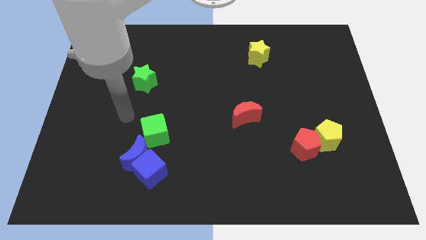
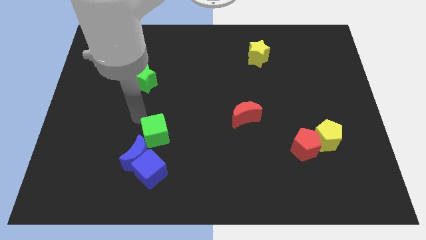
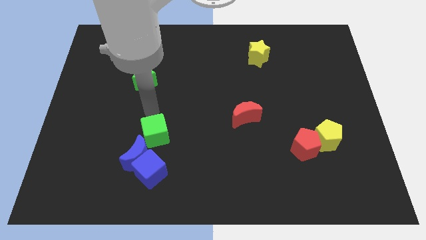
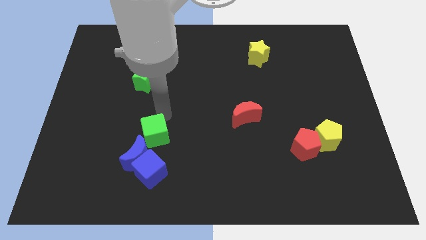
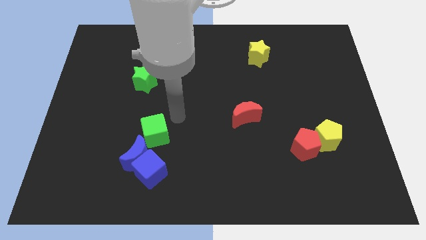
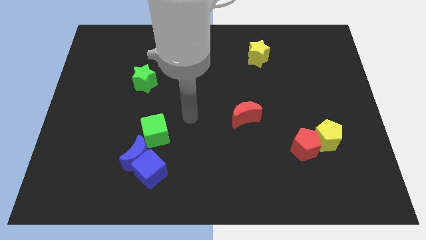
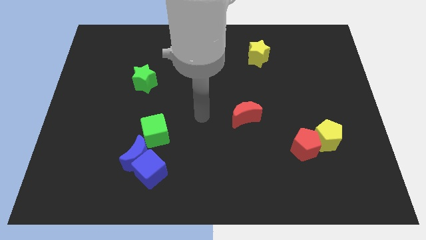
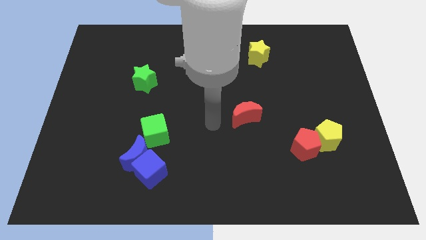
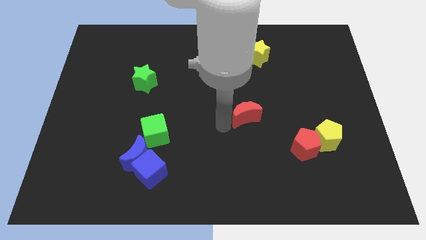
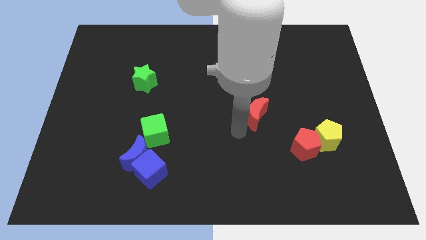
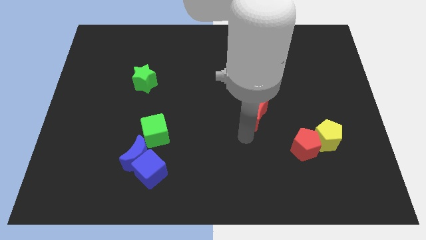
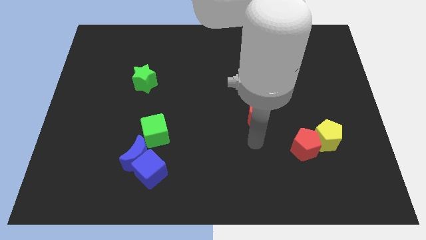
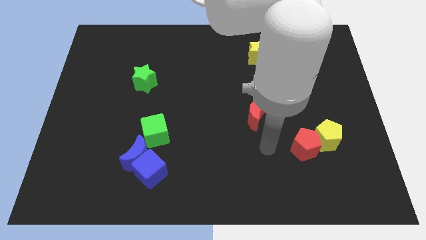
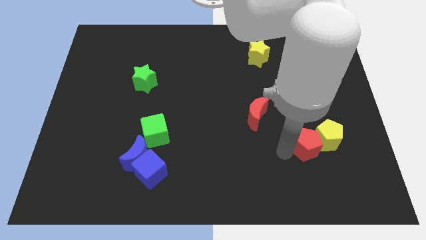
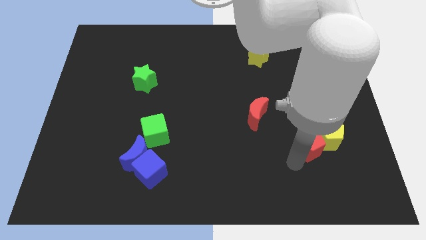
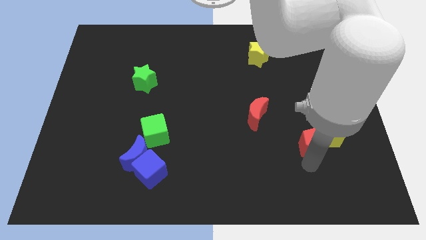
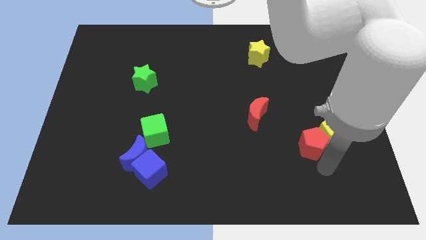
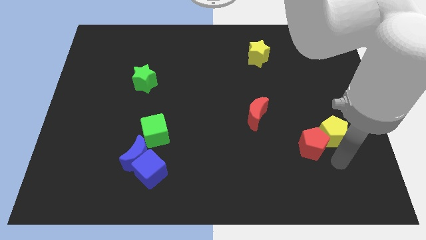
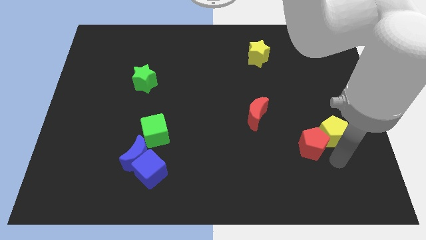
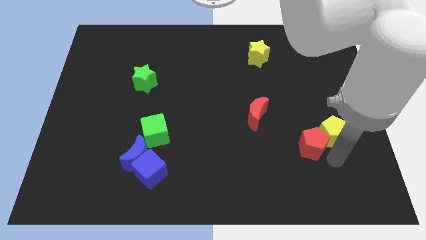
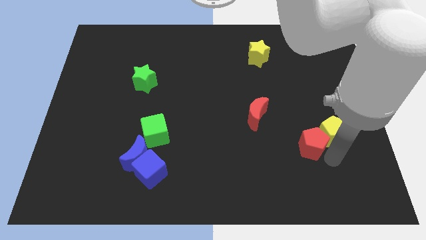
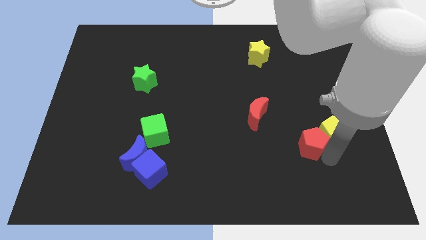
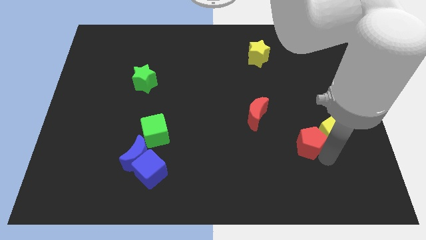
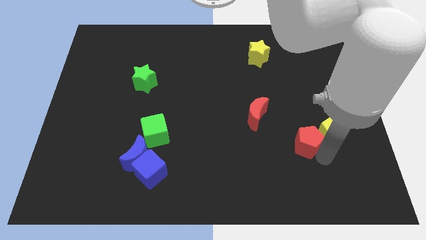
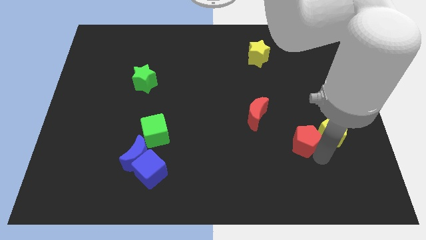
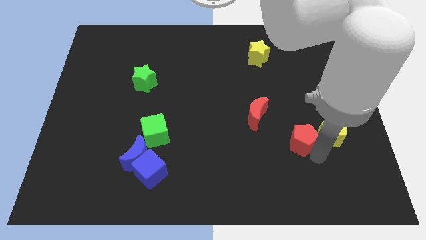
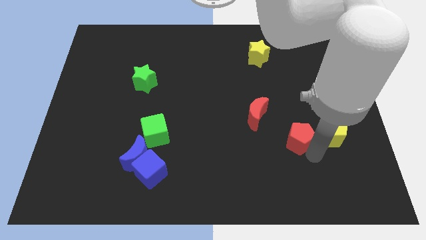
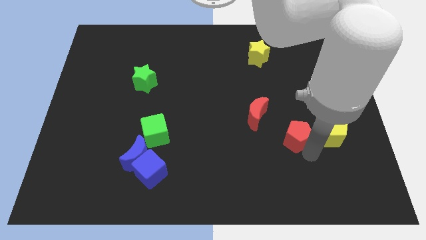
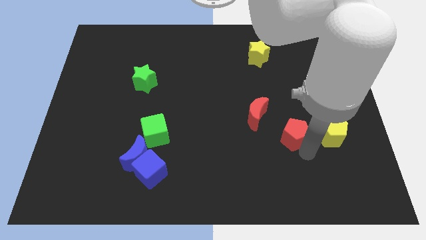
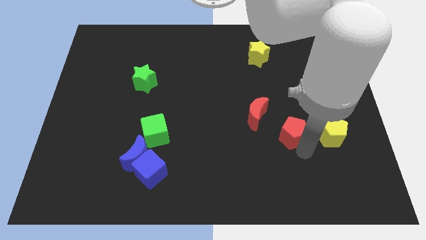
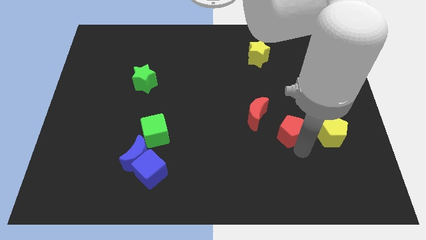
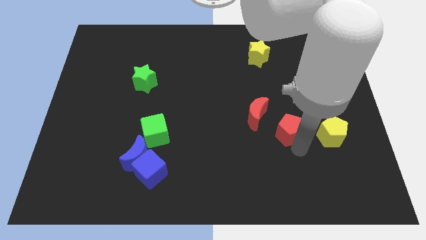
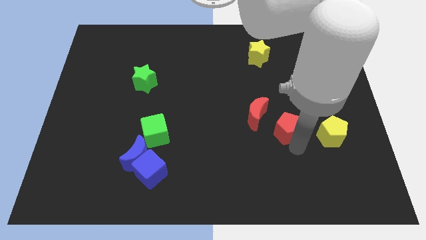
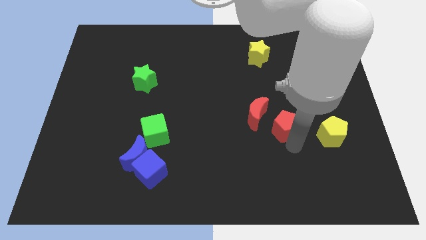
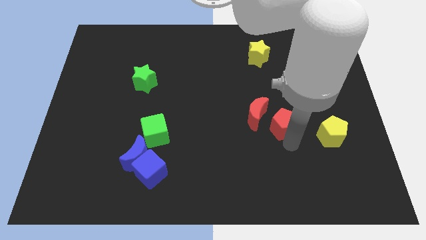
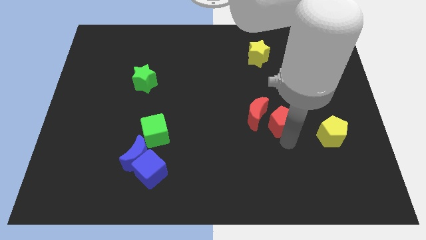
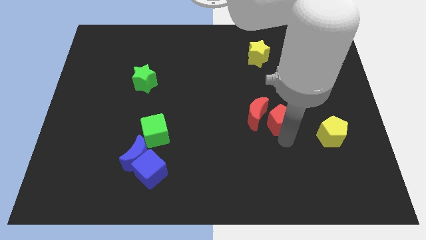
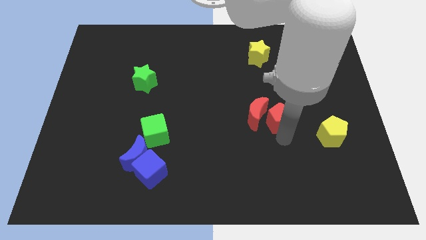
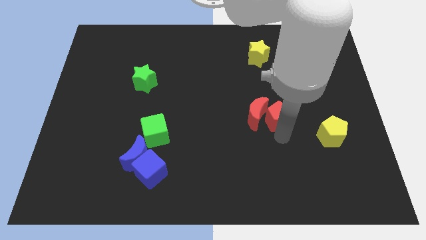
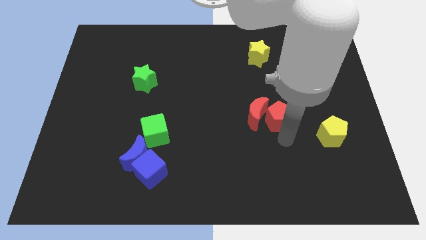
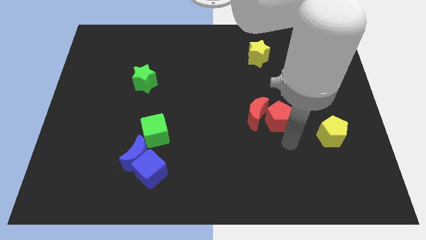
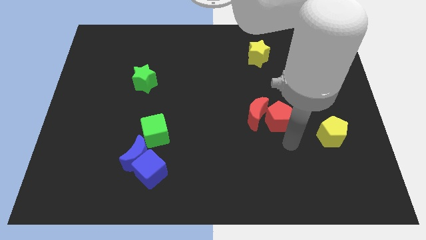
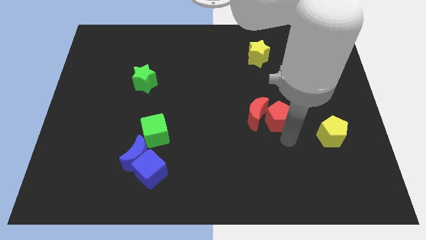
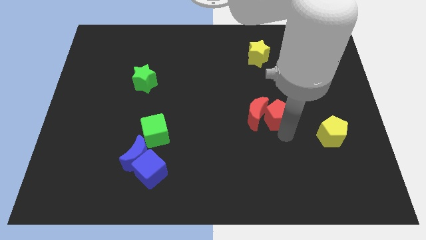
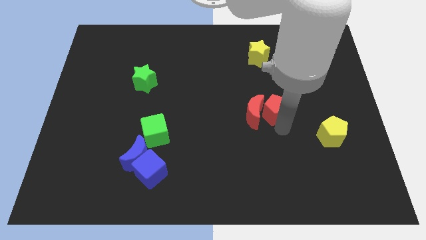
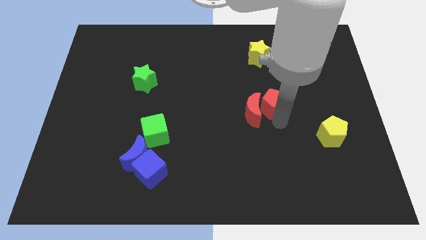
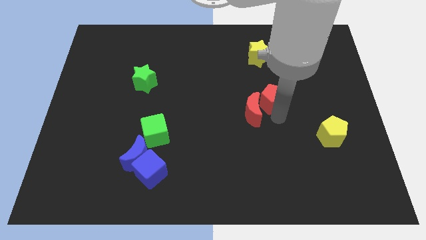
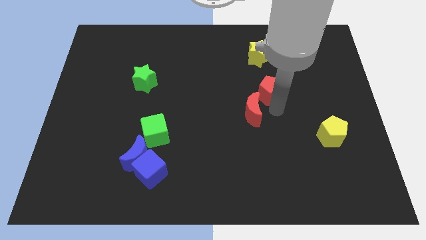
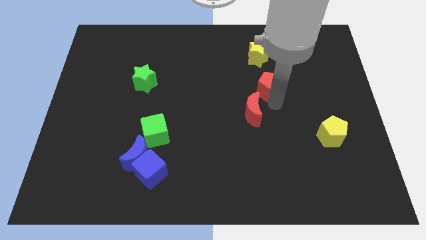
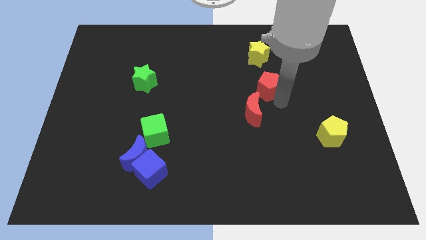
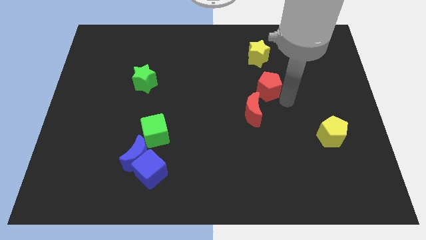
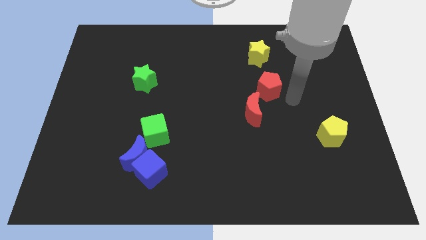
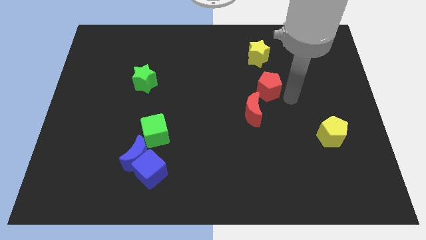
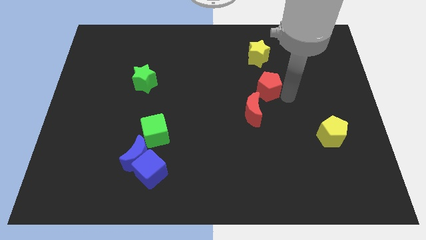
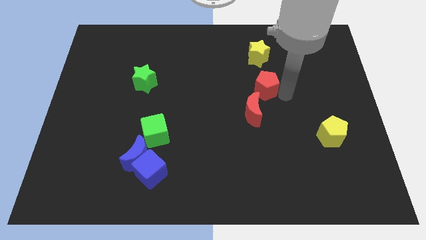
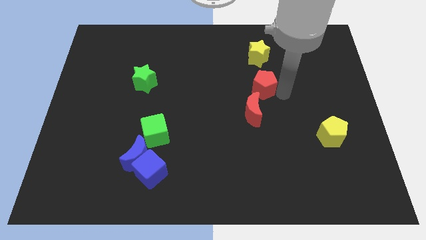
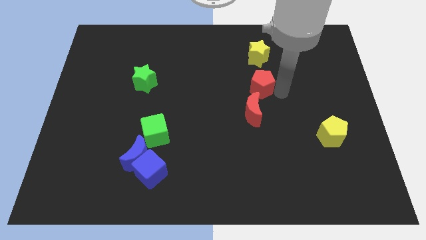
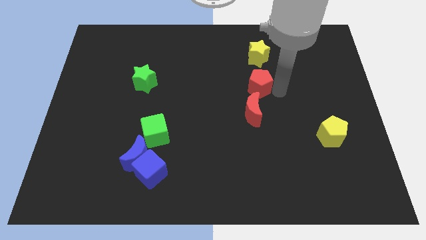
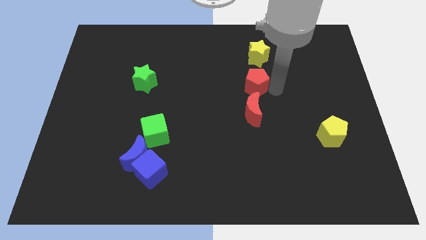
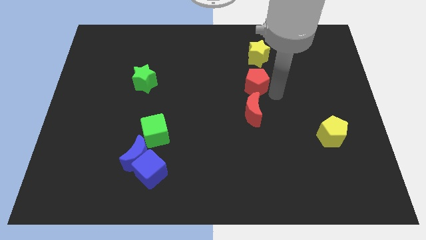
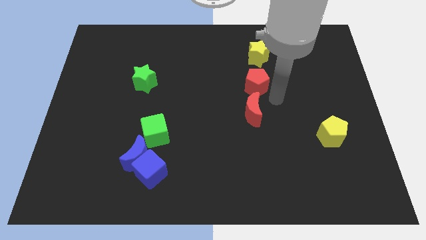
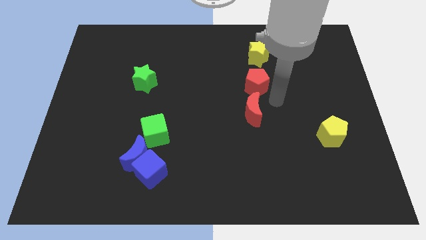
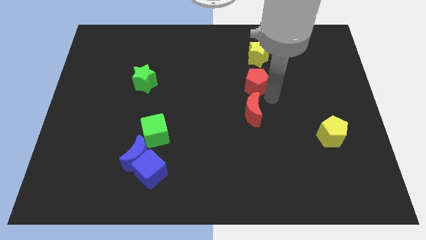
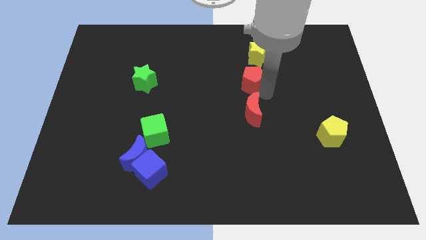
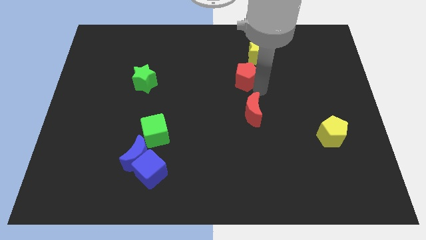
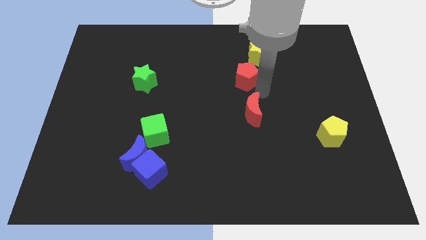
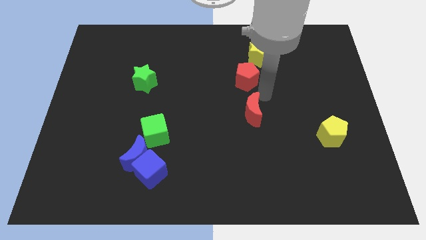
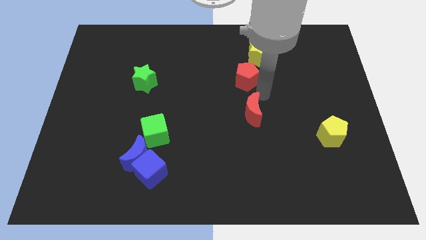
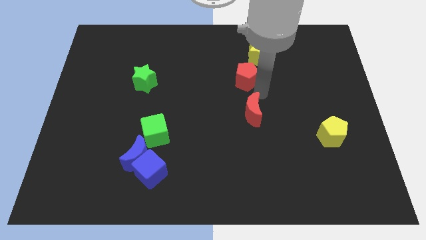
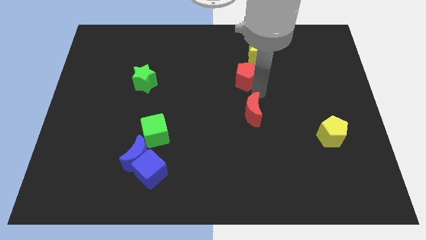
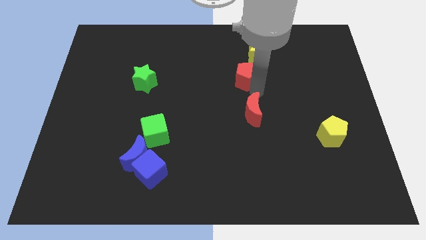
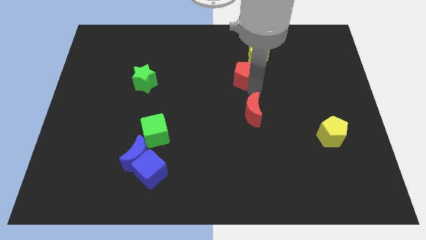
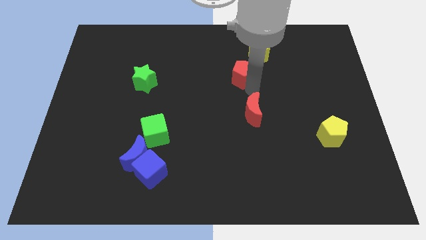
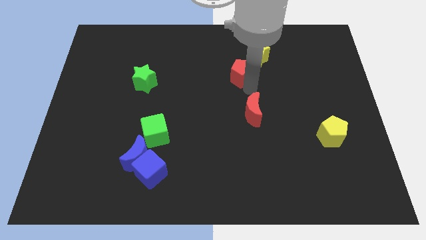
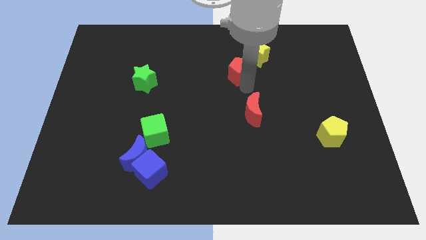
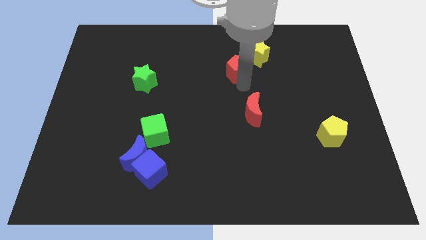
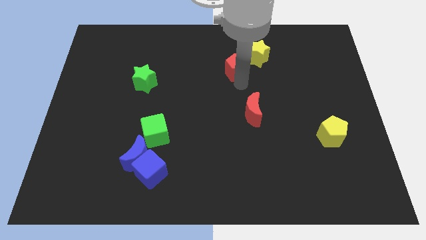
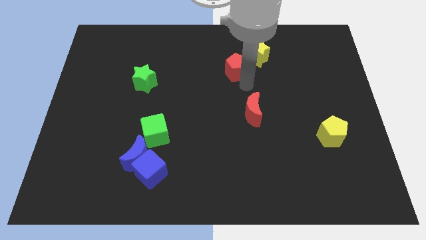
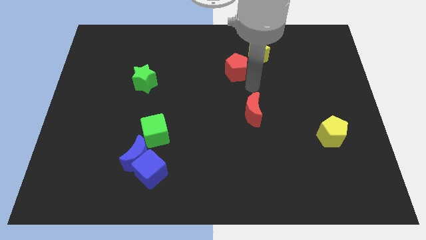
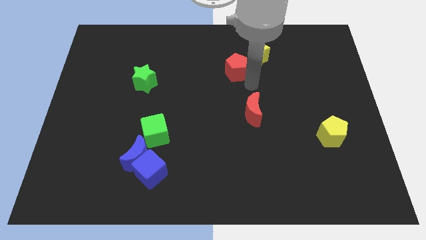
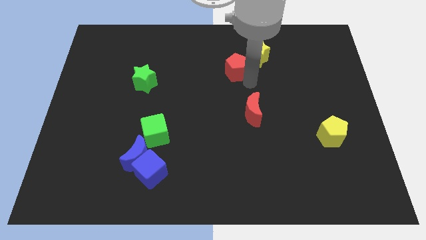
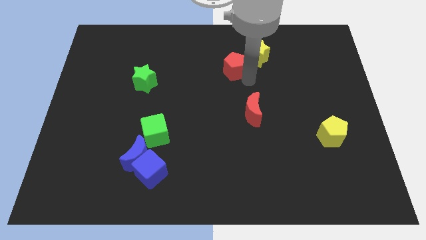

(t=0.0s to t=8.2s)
push the red pentagon to the left side of the yellow star
